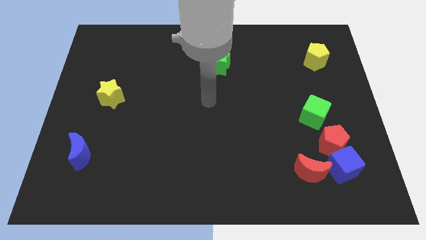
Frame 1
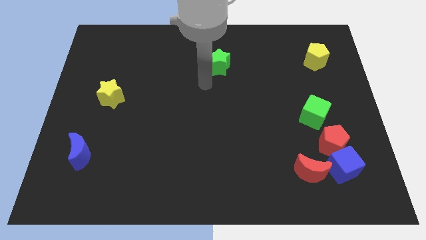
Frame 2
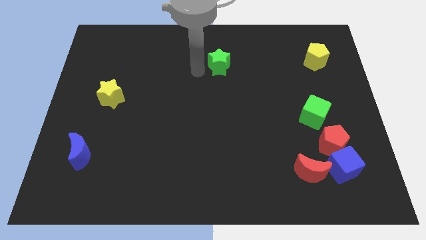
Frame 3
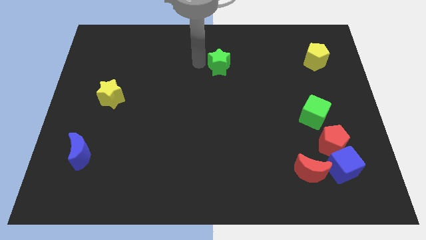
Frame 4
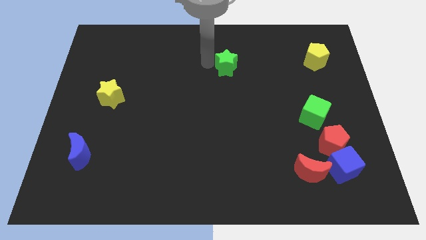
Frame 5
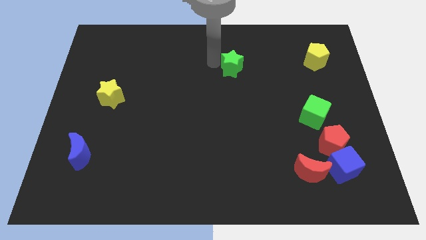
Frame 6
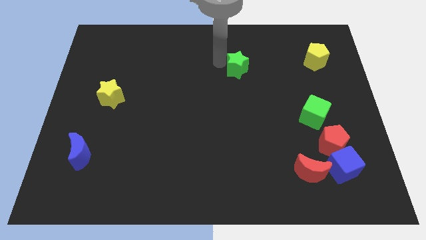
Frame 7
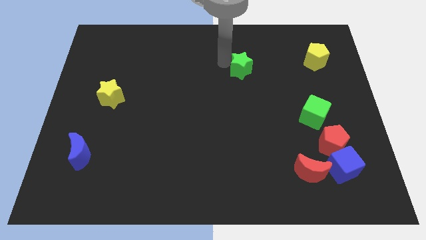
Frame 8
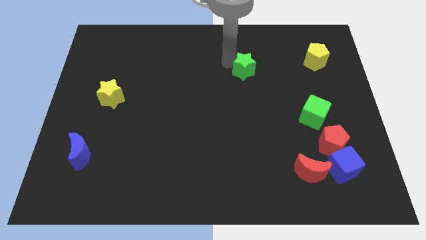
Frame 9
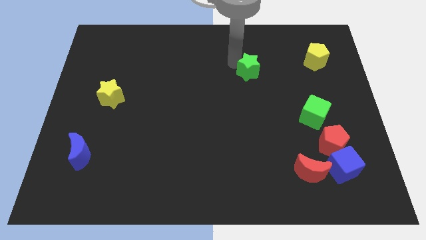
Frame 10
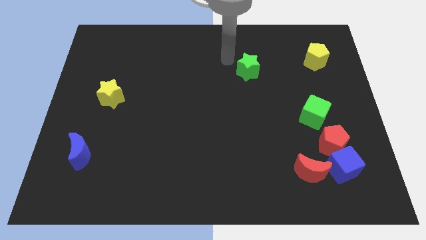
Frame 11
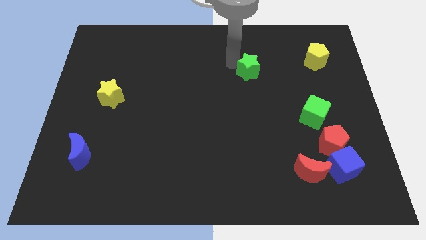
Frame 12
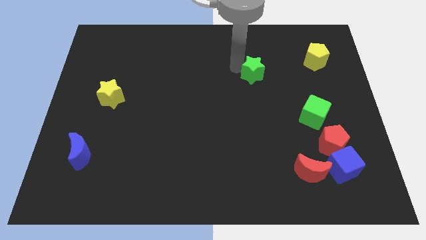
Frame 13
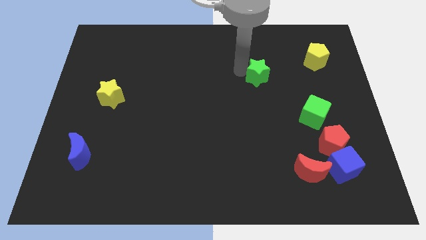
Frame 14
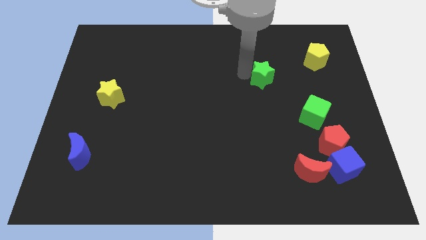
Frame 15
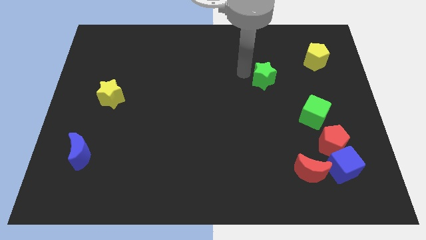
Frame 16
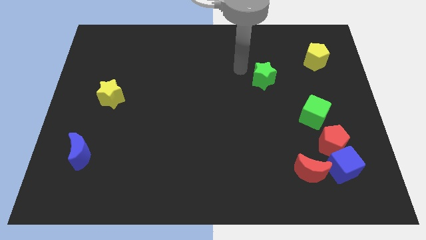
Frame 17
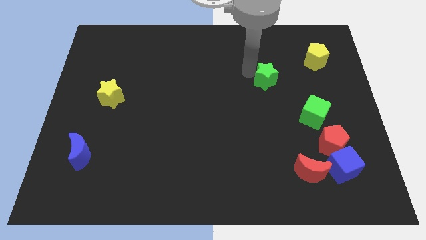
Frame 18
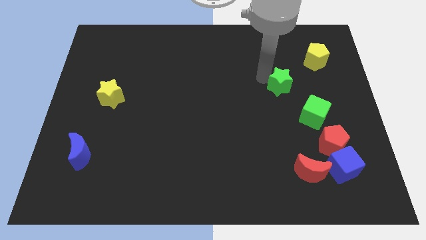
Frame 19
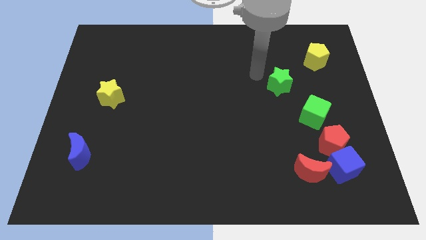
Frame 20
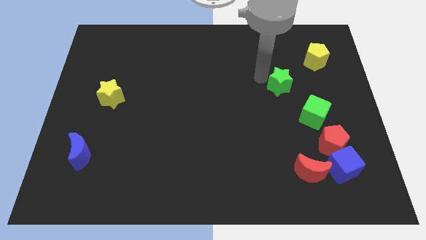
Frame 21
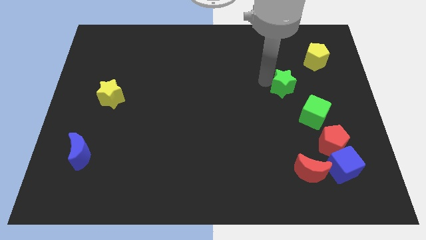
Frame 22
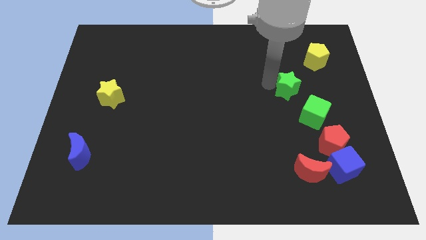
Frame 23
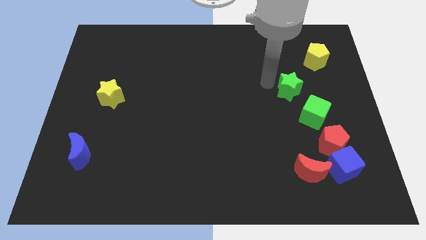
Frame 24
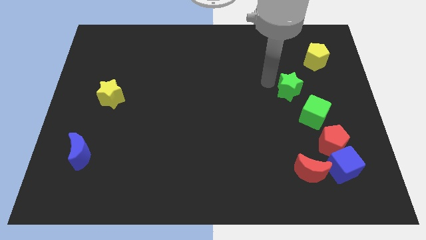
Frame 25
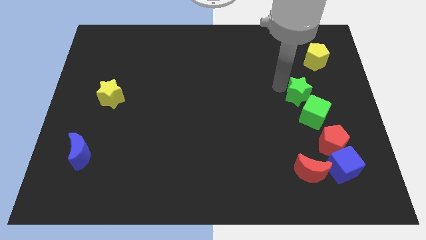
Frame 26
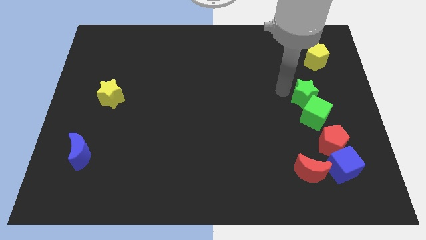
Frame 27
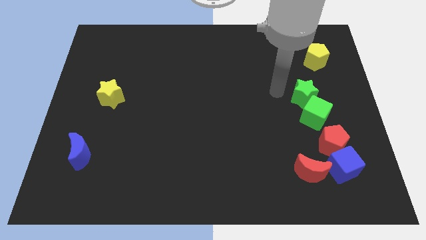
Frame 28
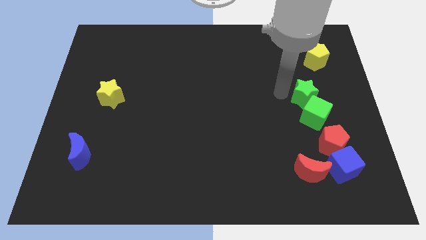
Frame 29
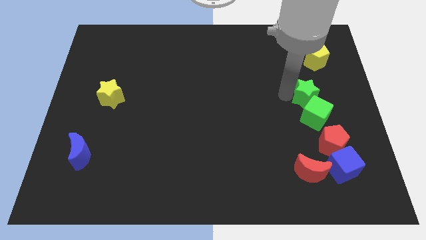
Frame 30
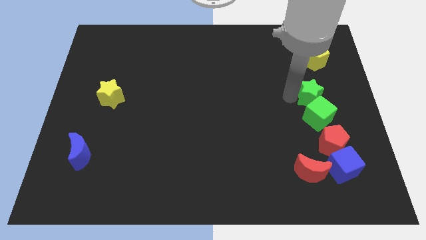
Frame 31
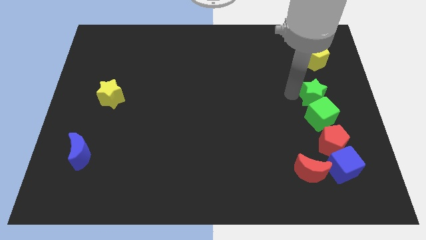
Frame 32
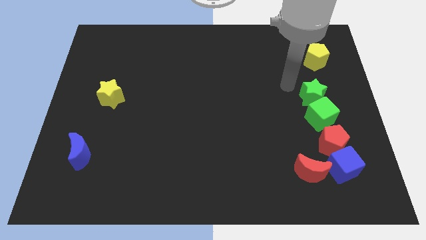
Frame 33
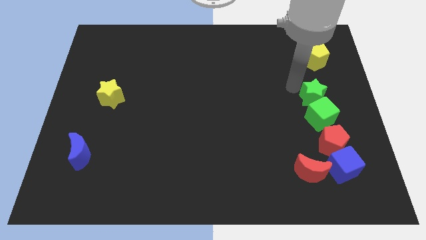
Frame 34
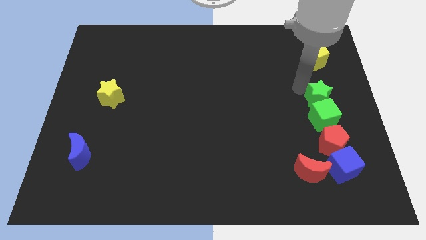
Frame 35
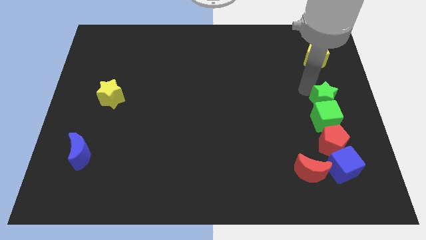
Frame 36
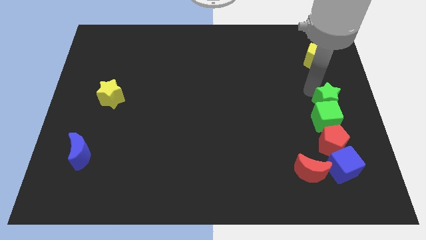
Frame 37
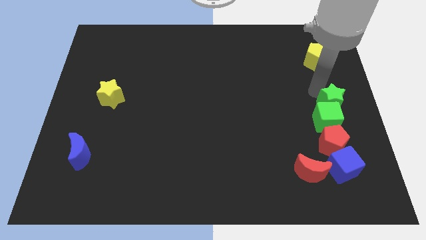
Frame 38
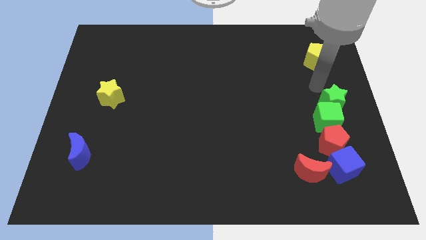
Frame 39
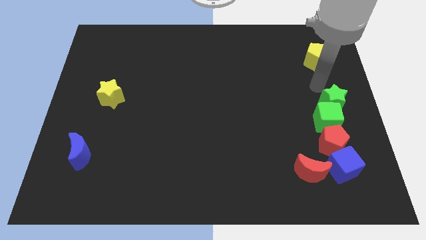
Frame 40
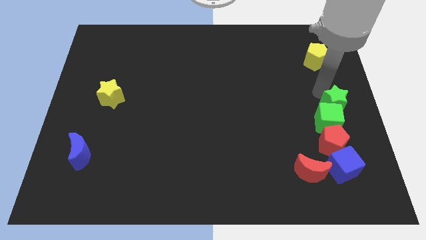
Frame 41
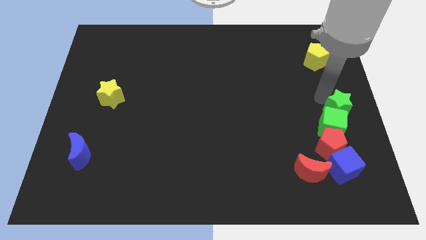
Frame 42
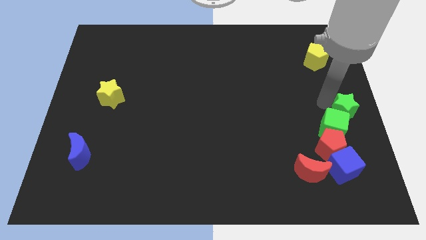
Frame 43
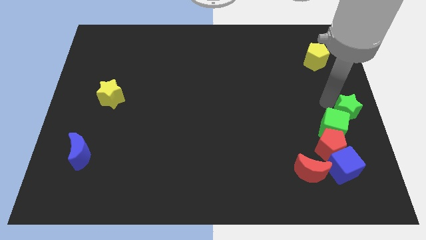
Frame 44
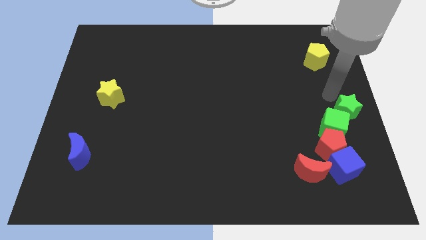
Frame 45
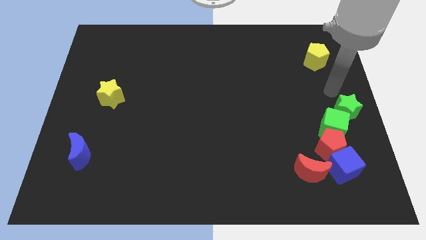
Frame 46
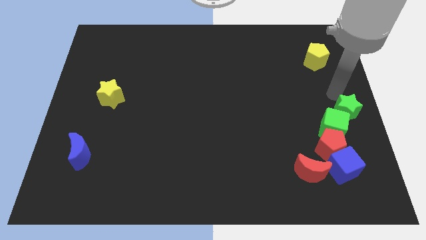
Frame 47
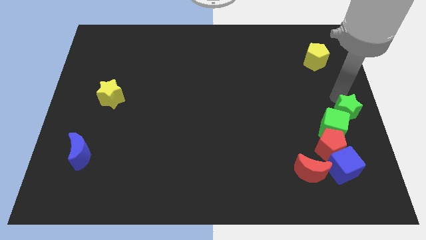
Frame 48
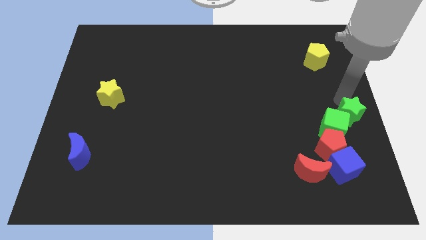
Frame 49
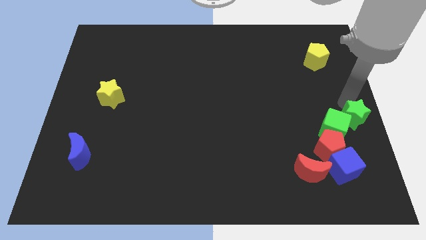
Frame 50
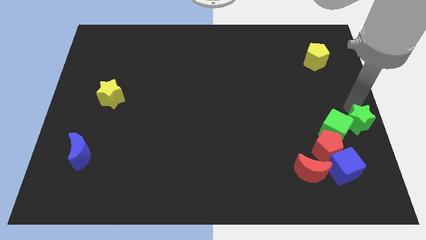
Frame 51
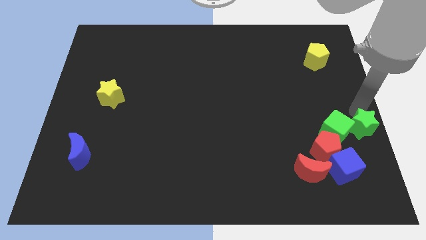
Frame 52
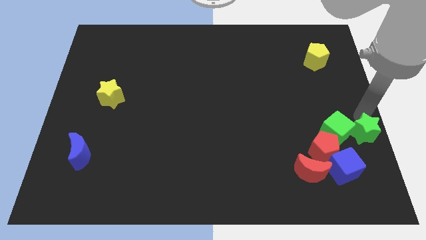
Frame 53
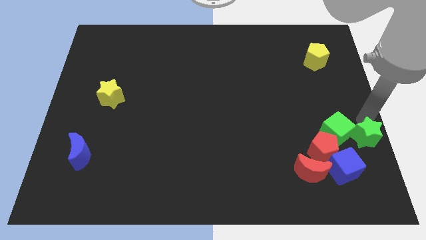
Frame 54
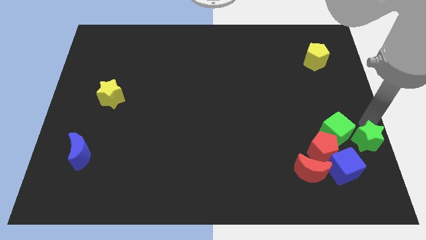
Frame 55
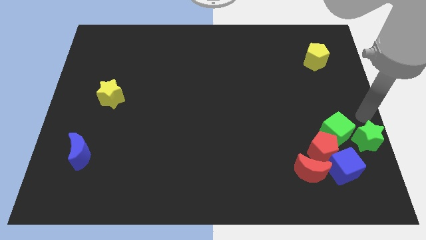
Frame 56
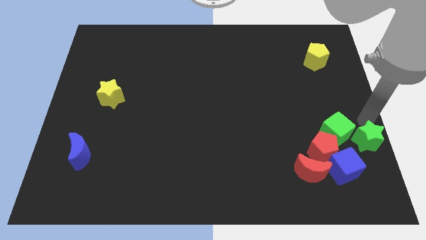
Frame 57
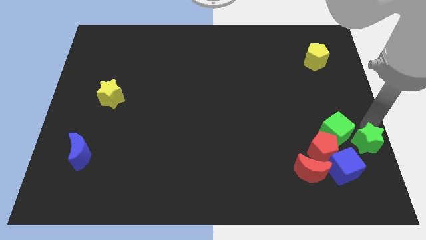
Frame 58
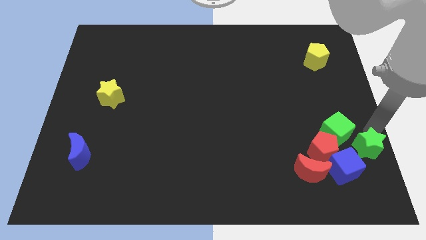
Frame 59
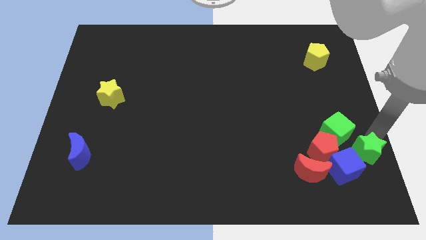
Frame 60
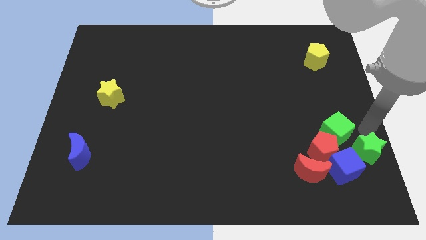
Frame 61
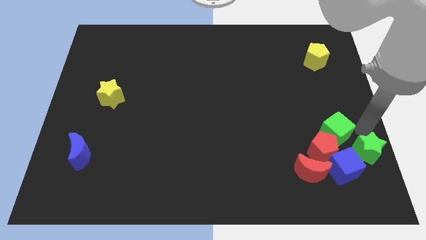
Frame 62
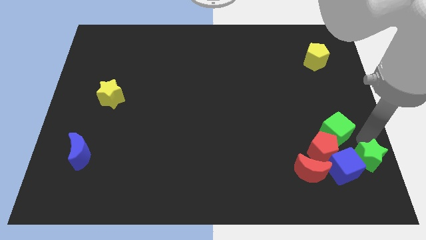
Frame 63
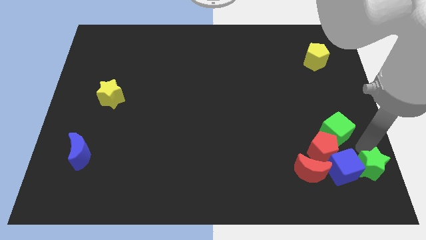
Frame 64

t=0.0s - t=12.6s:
push the green star to the bottom right of the board
